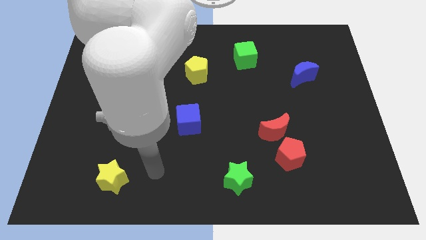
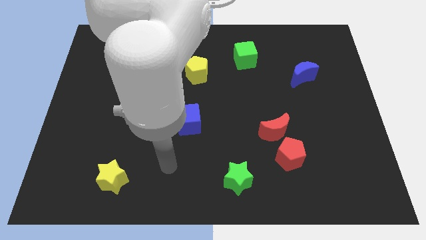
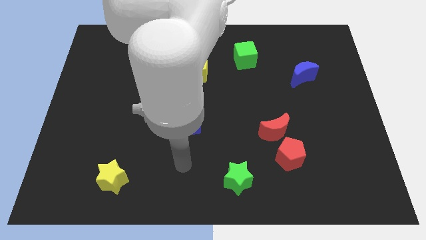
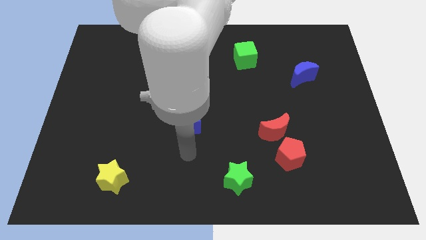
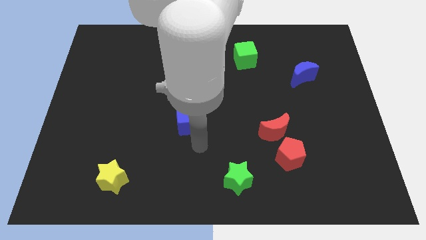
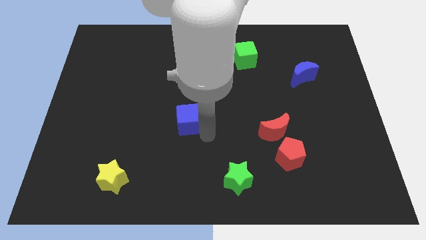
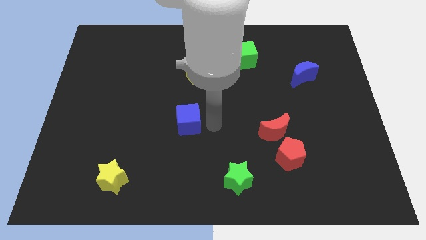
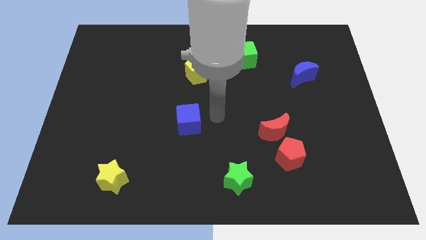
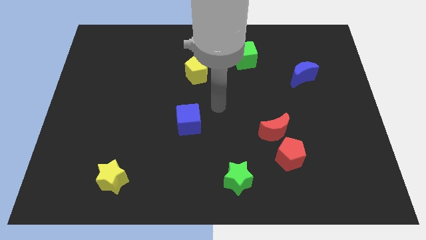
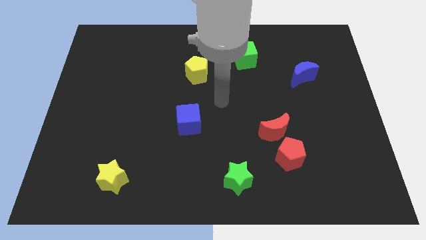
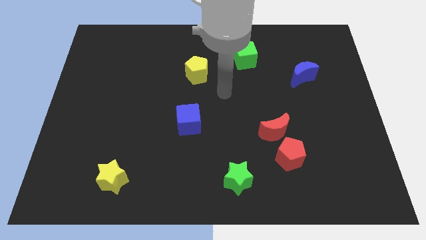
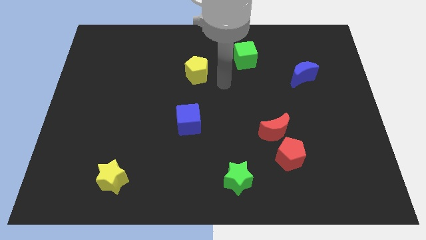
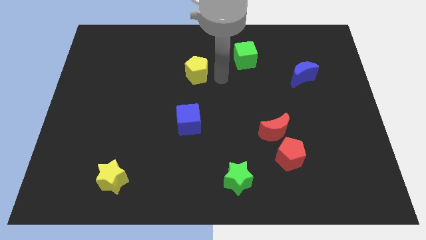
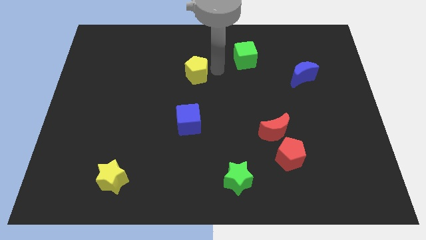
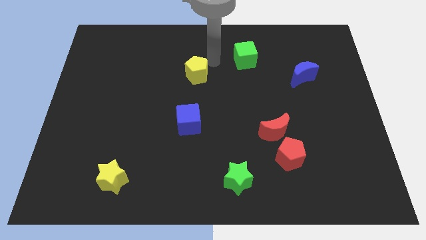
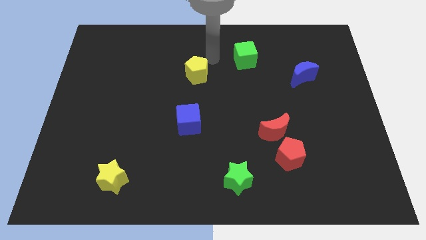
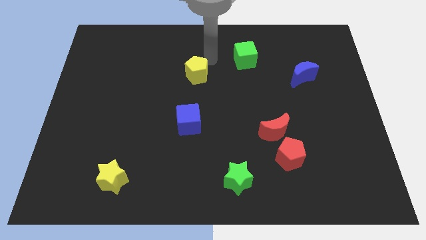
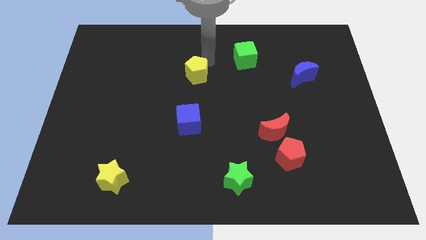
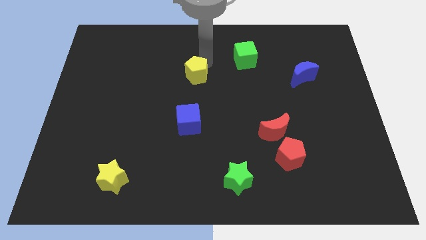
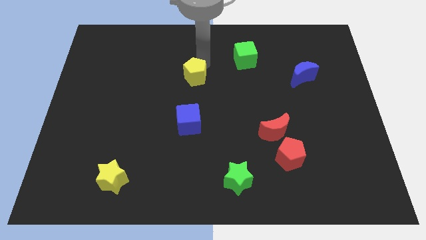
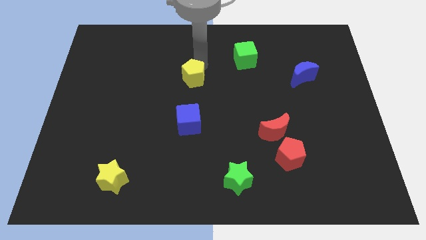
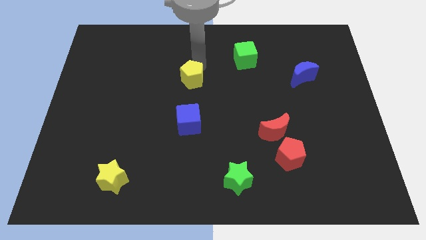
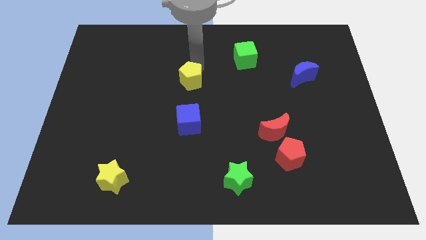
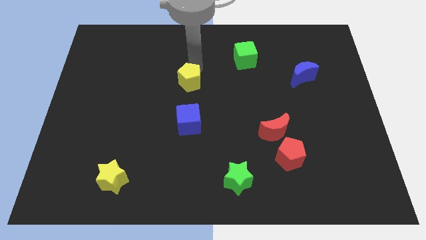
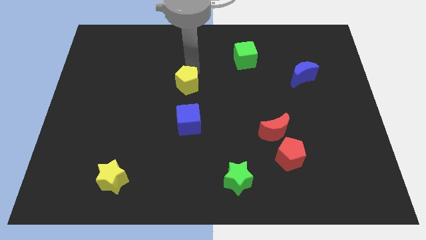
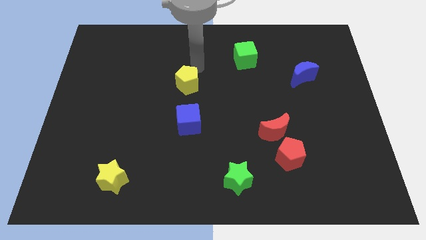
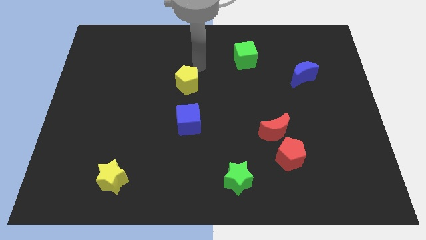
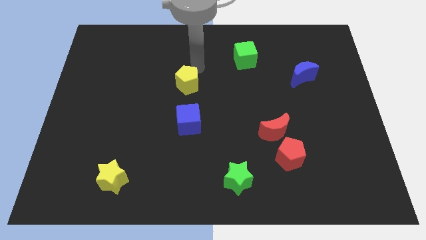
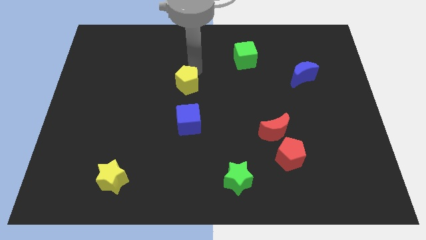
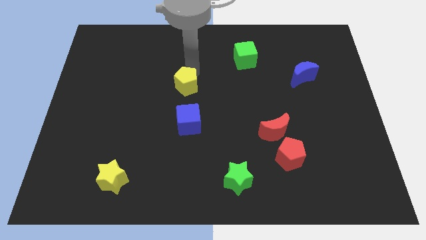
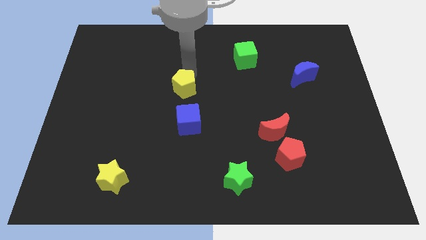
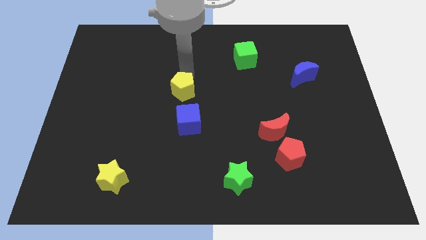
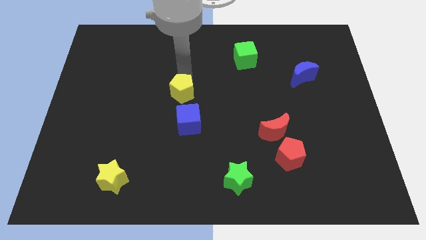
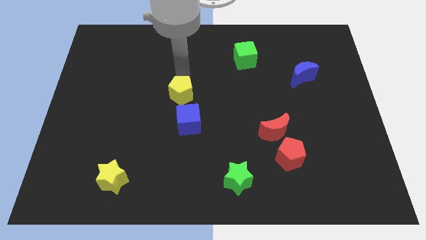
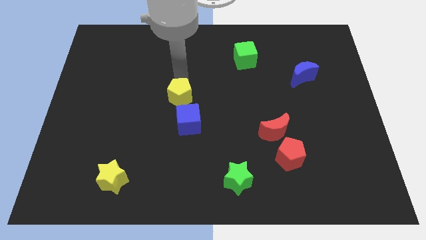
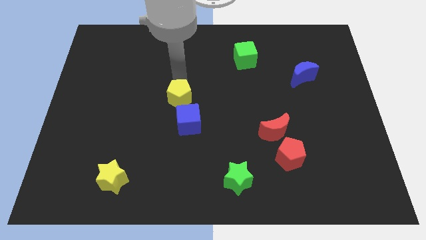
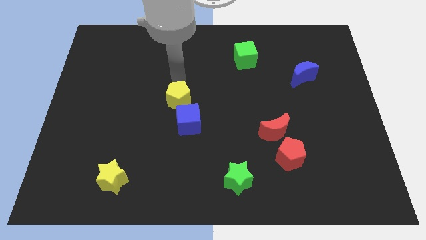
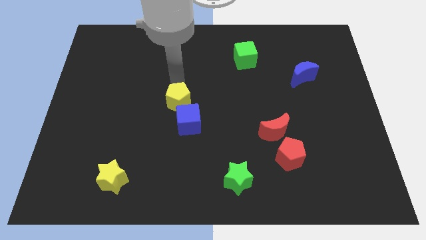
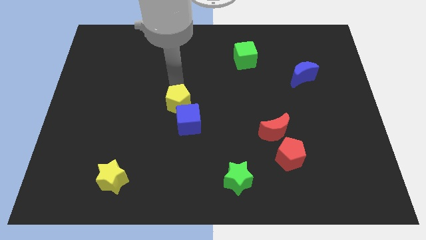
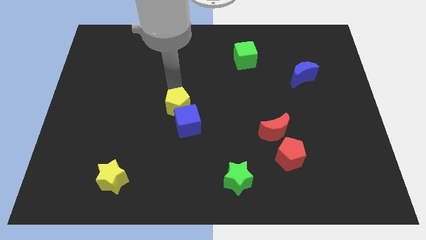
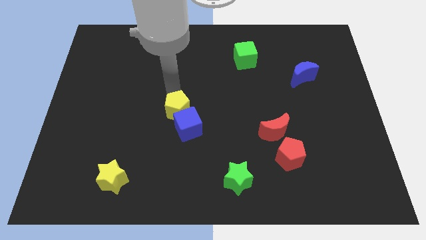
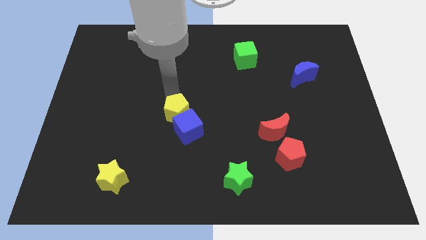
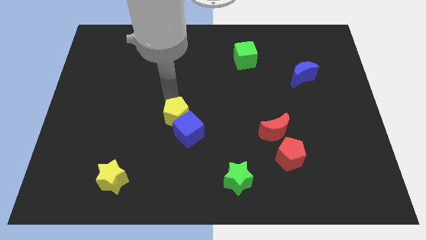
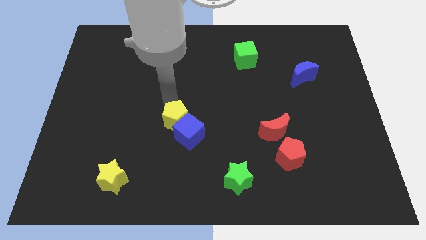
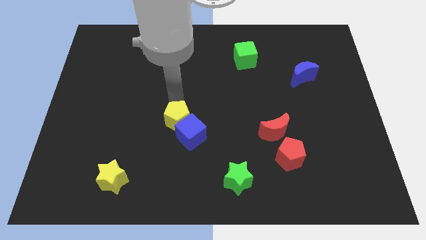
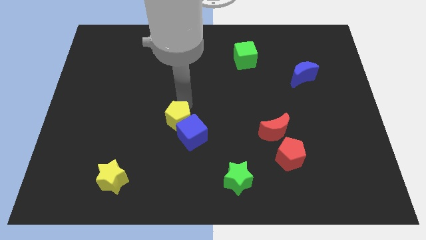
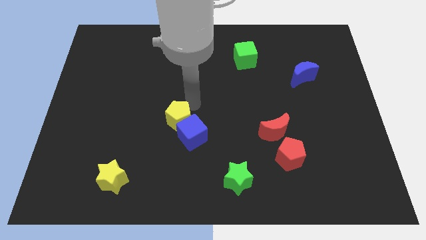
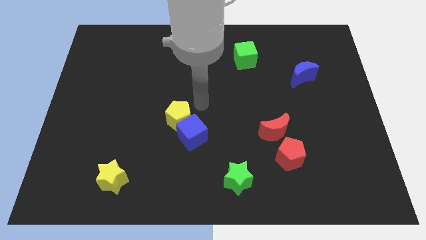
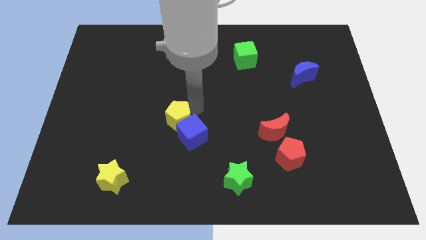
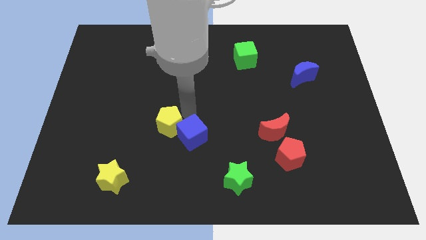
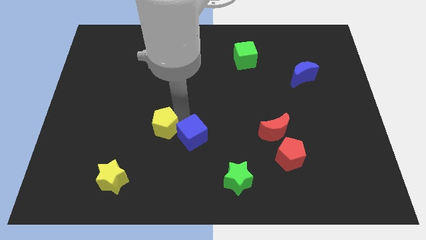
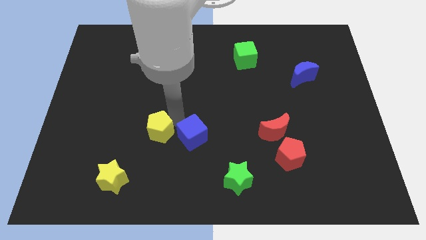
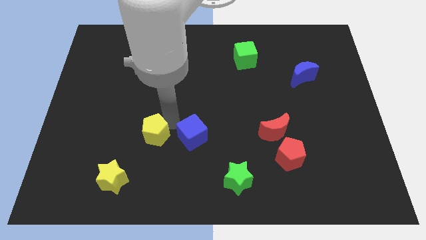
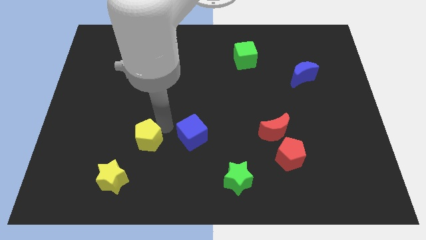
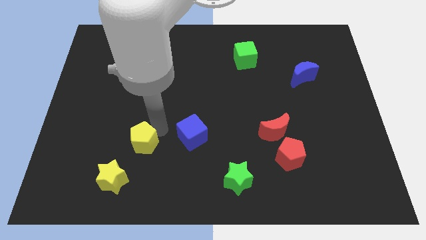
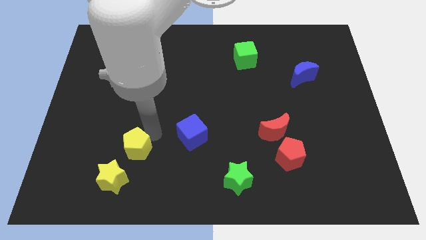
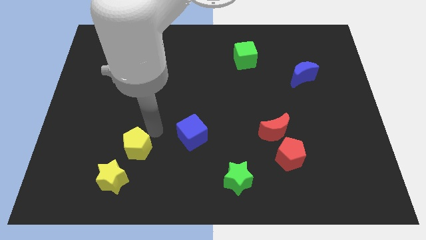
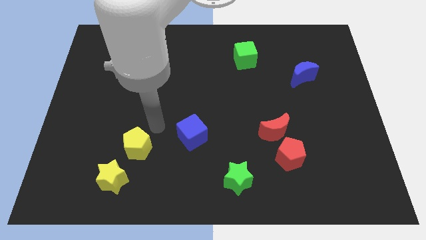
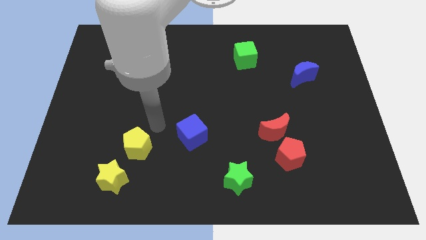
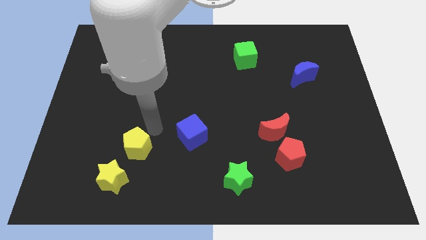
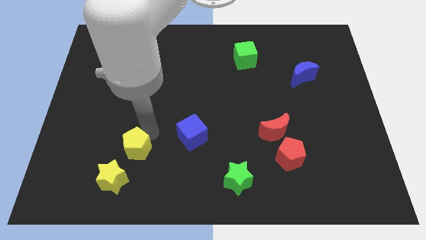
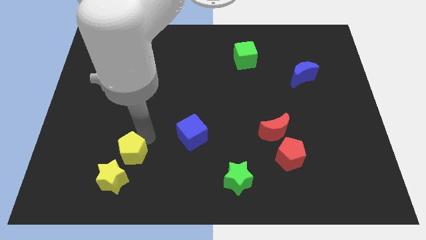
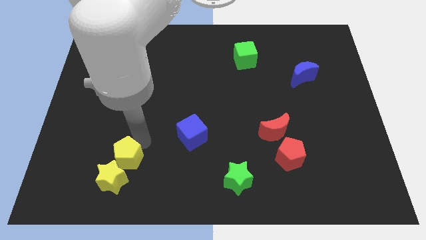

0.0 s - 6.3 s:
push the yellow pentagon close to the yellow star

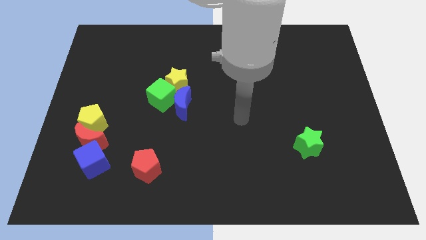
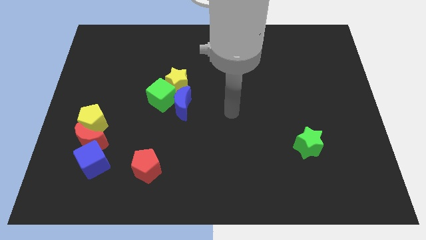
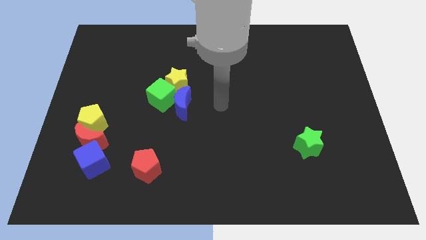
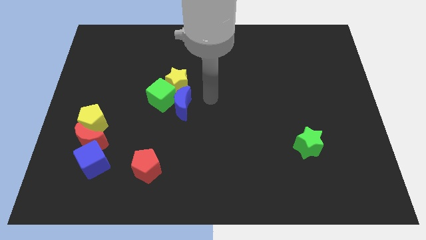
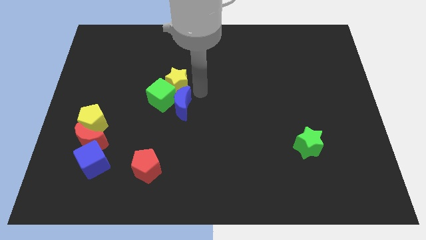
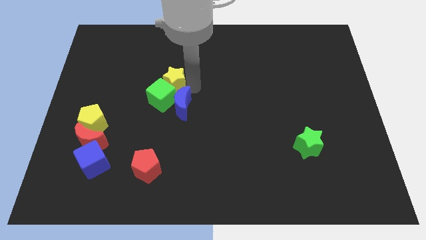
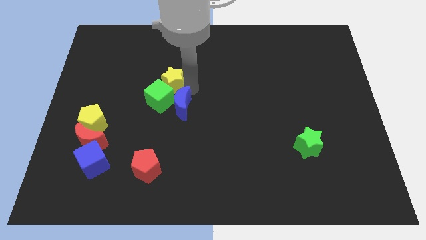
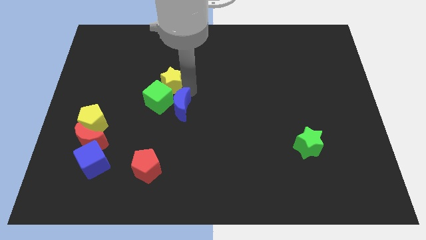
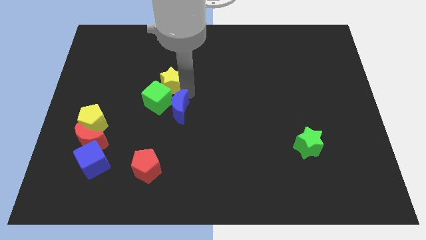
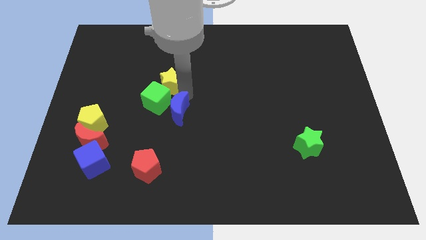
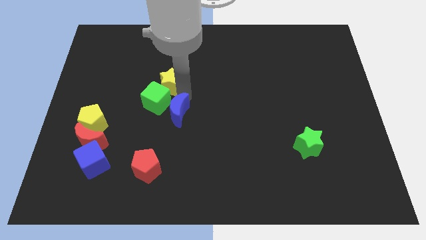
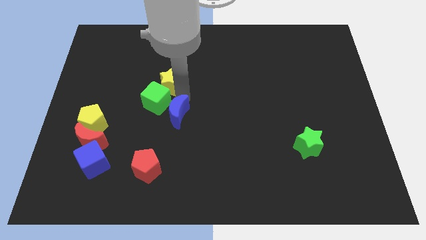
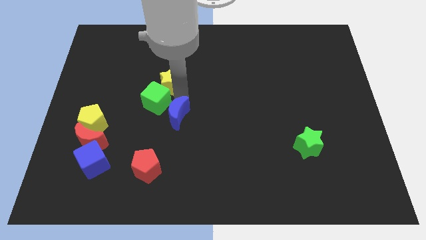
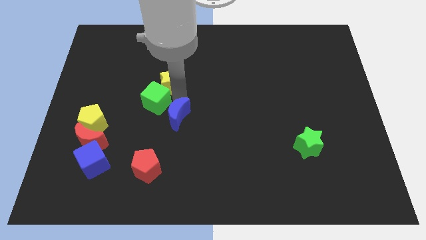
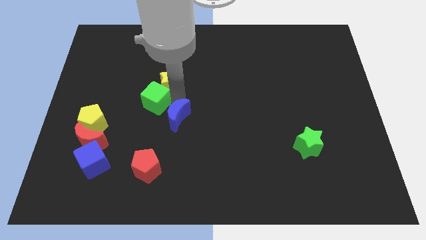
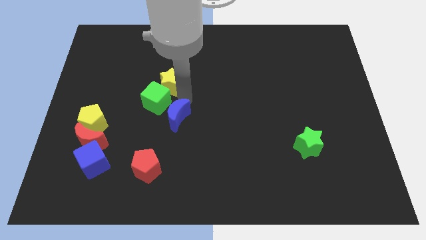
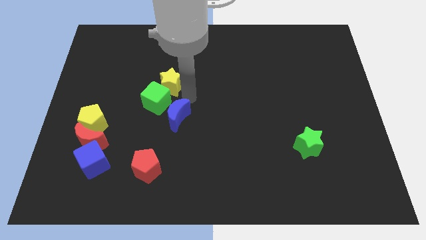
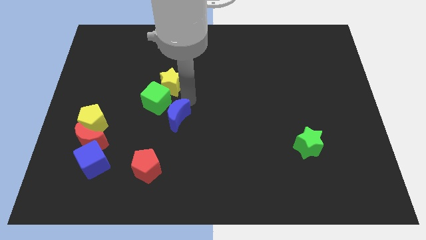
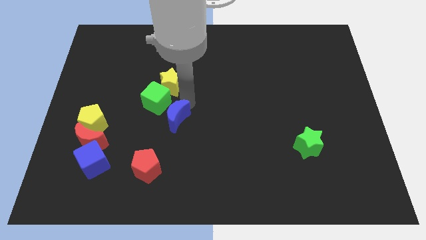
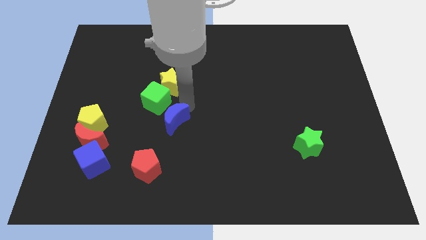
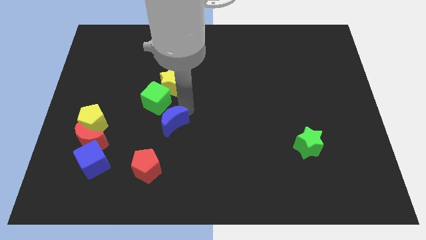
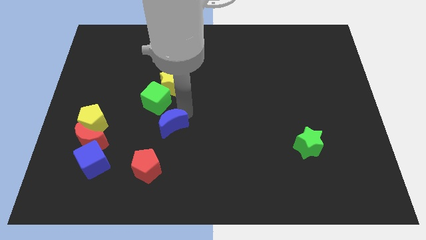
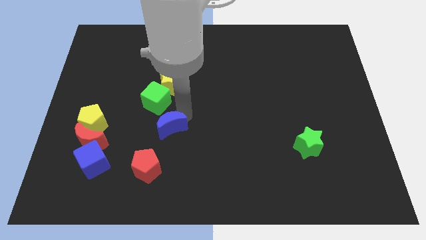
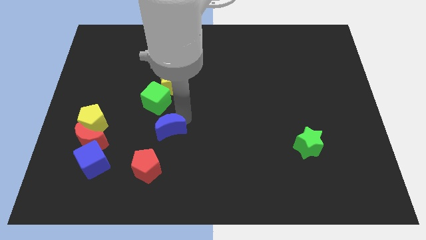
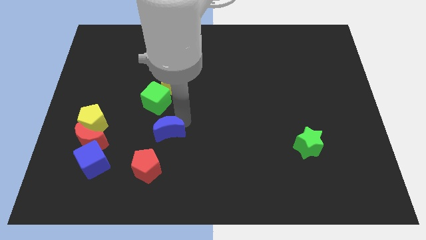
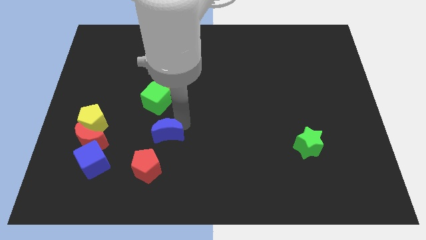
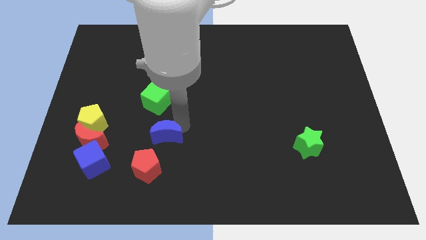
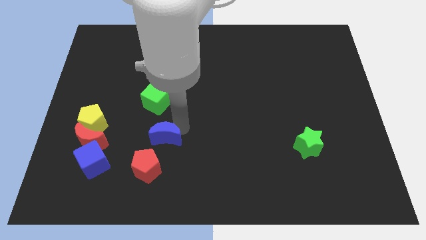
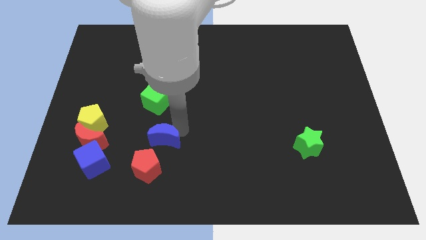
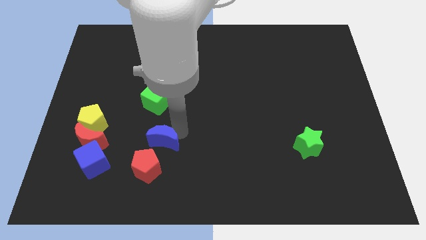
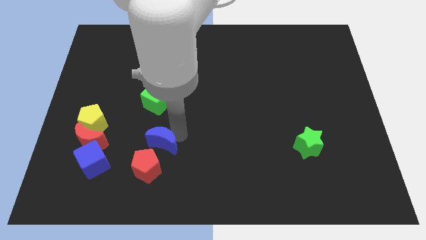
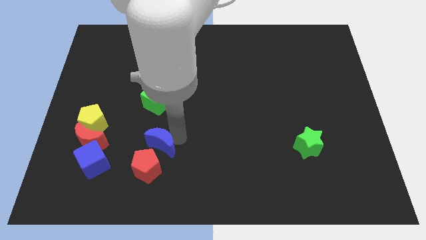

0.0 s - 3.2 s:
slide the blue moon close to the red pentagon
